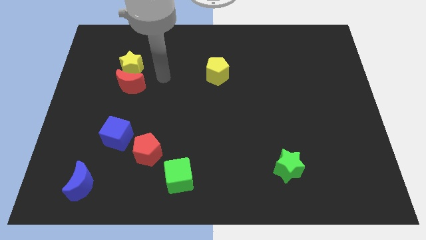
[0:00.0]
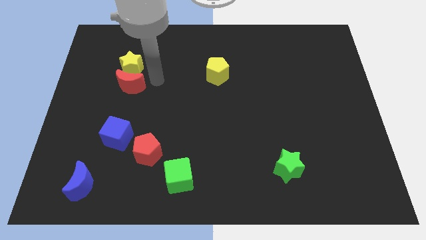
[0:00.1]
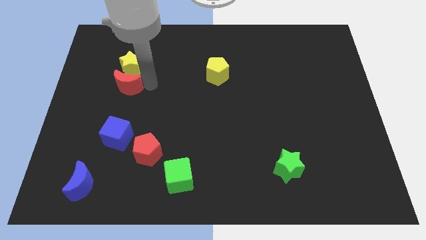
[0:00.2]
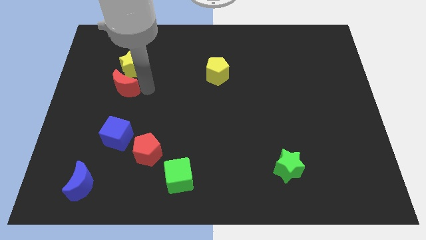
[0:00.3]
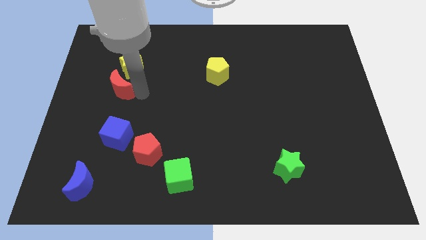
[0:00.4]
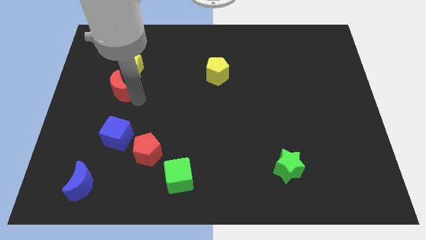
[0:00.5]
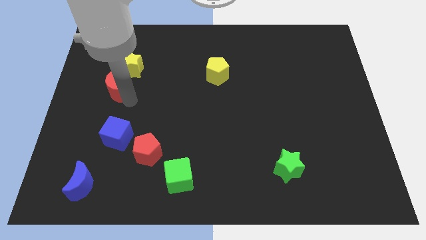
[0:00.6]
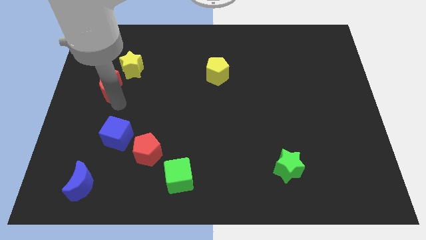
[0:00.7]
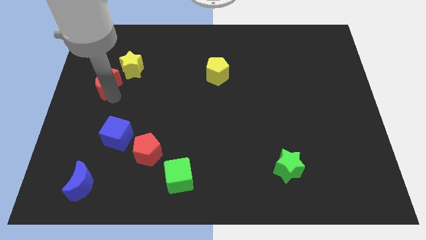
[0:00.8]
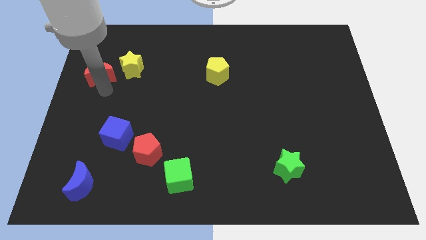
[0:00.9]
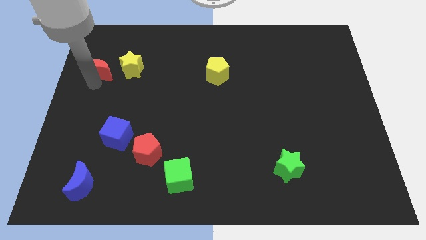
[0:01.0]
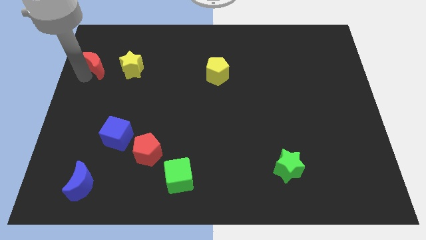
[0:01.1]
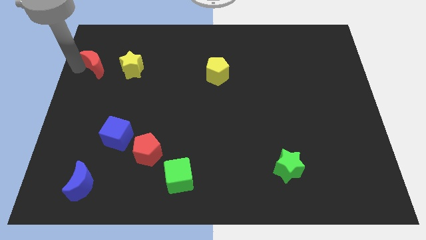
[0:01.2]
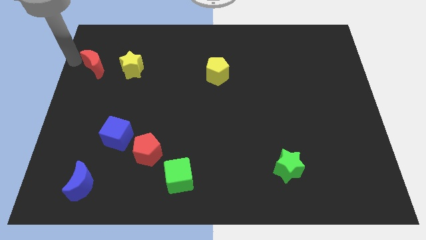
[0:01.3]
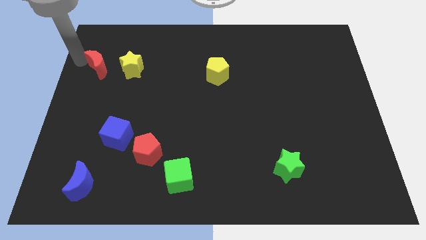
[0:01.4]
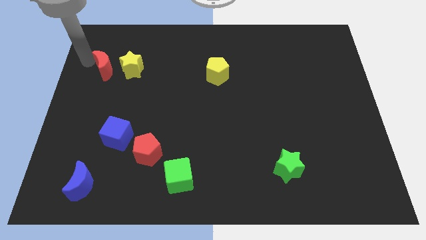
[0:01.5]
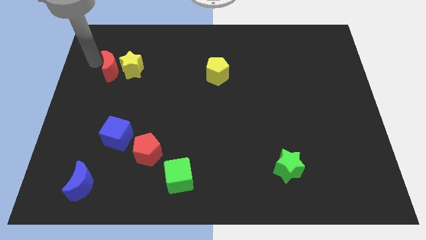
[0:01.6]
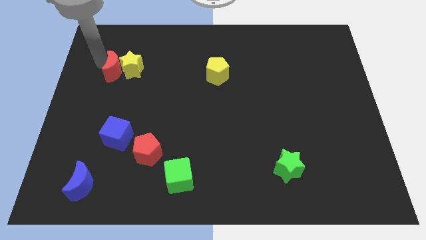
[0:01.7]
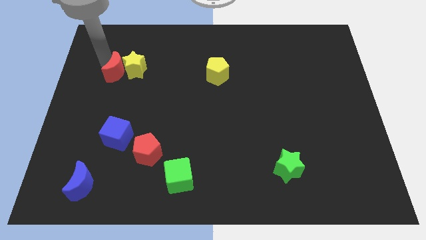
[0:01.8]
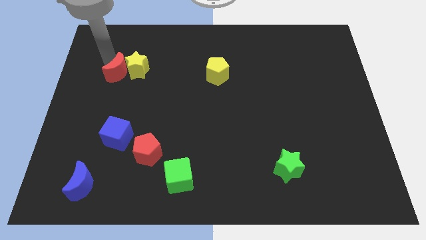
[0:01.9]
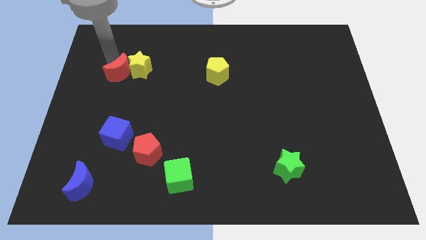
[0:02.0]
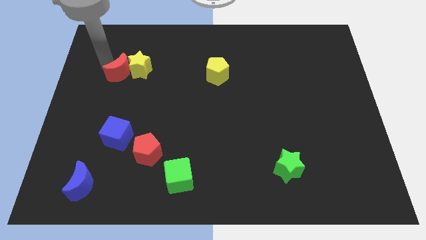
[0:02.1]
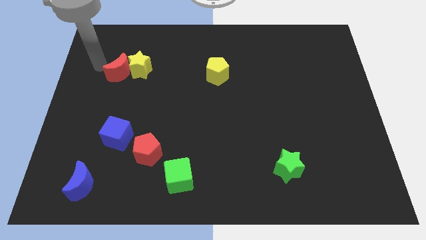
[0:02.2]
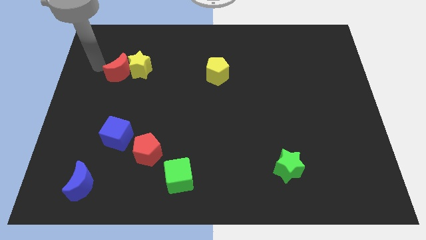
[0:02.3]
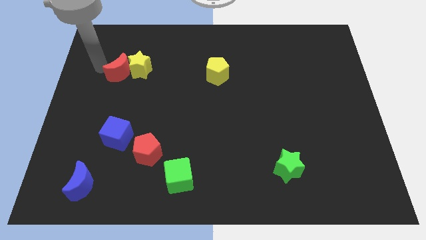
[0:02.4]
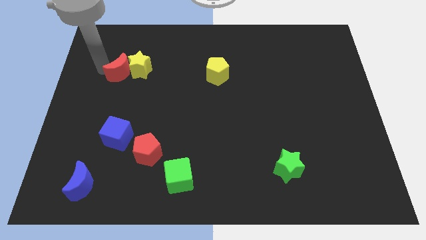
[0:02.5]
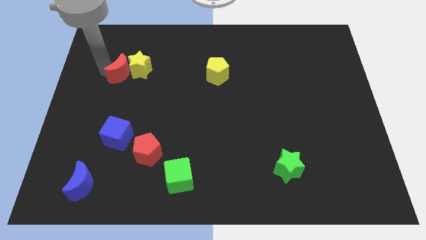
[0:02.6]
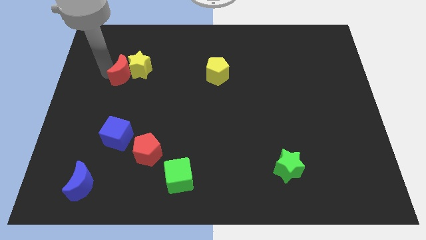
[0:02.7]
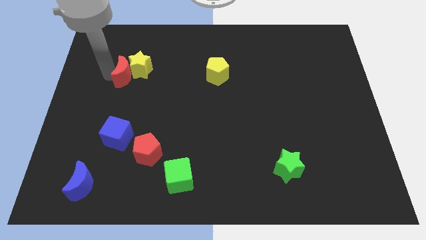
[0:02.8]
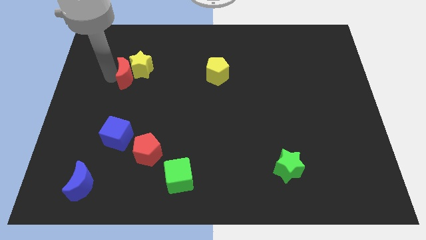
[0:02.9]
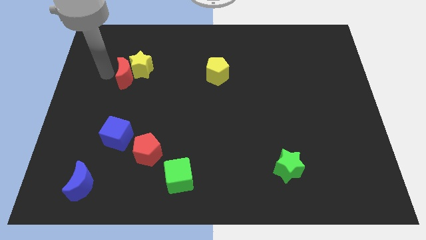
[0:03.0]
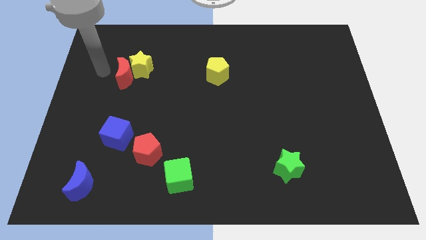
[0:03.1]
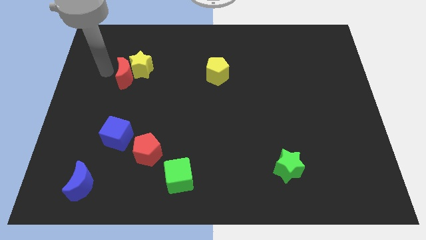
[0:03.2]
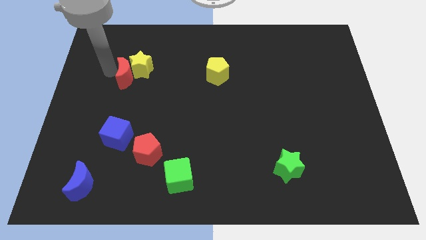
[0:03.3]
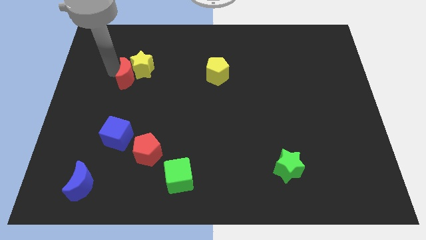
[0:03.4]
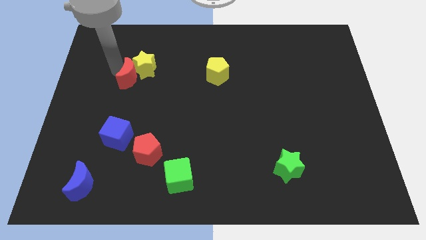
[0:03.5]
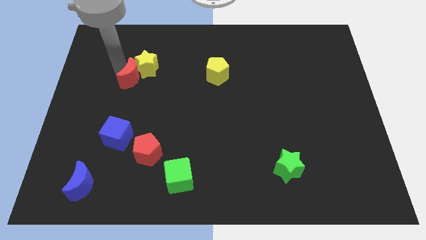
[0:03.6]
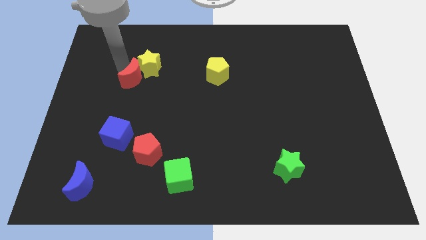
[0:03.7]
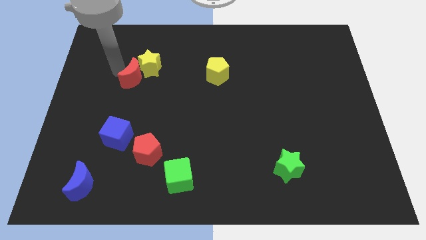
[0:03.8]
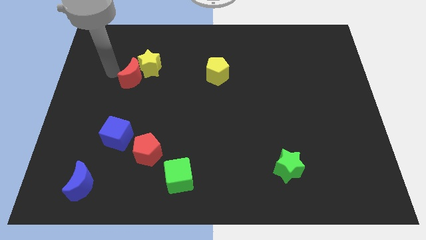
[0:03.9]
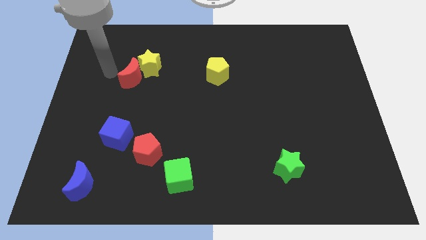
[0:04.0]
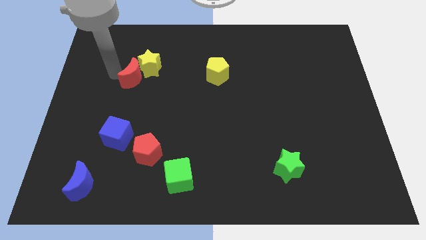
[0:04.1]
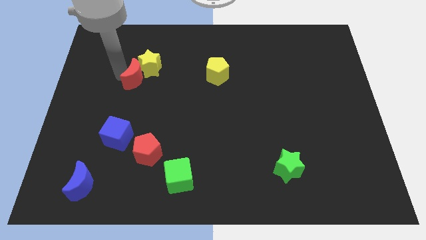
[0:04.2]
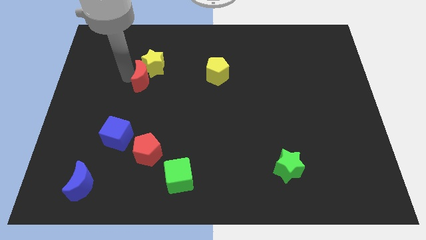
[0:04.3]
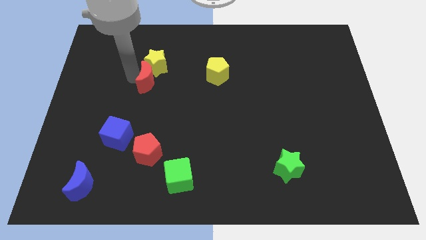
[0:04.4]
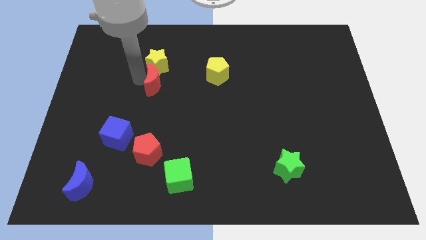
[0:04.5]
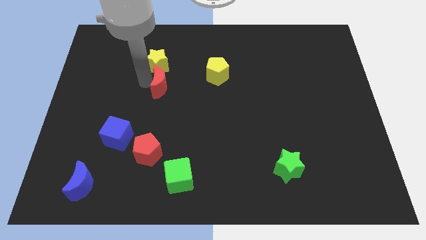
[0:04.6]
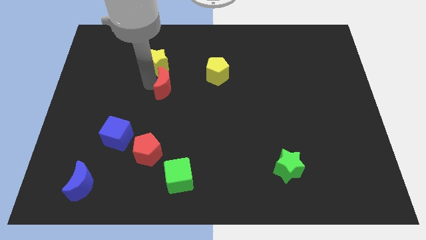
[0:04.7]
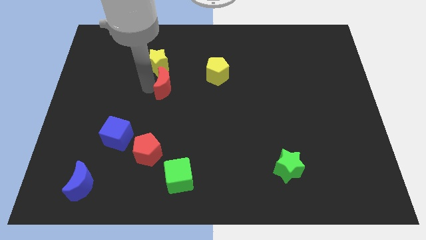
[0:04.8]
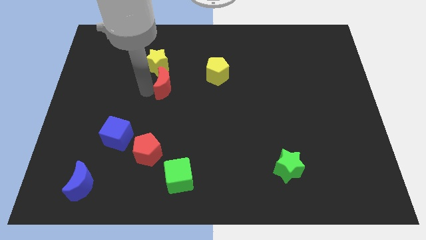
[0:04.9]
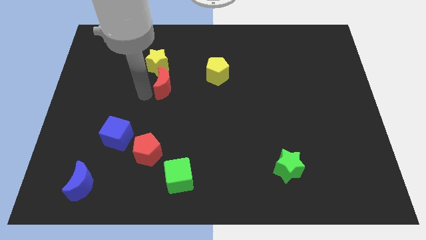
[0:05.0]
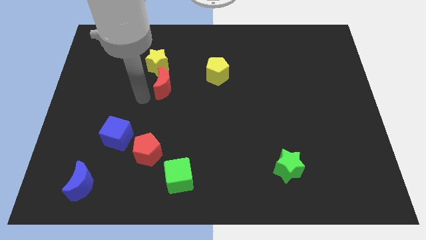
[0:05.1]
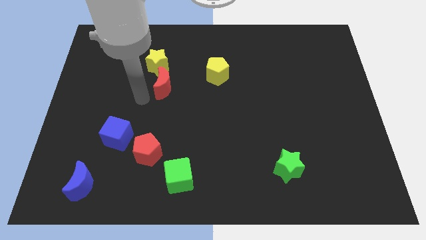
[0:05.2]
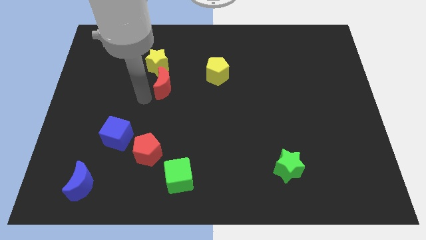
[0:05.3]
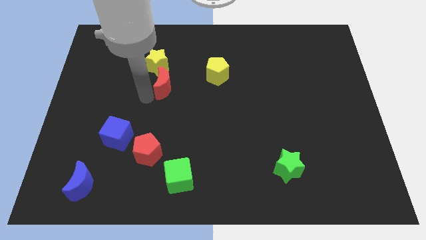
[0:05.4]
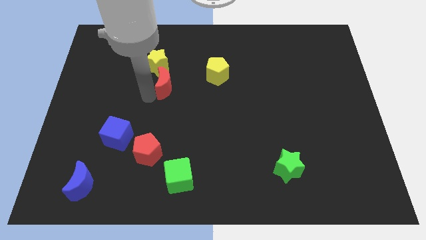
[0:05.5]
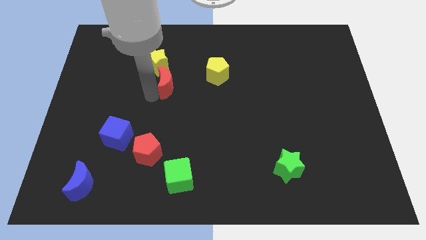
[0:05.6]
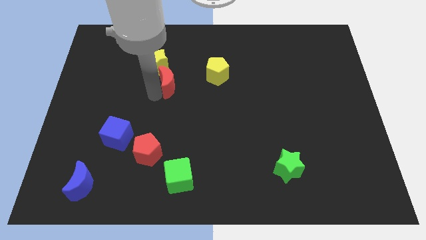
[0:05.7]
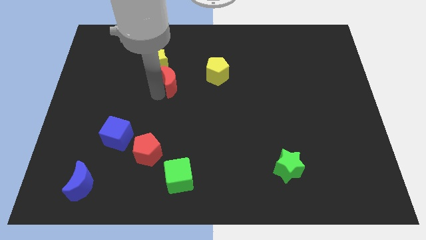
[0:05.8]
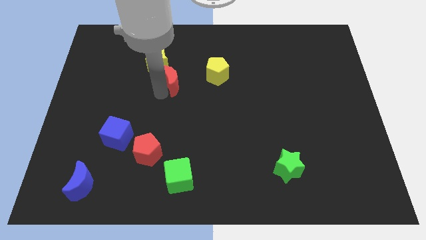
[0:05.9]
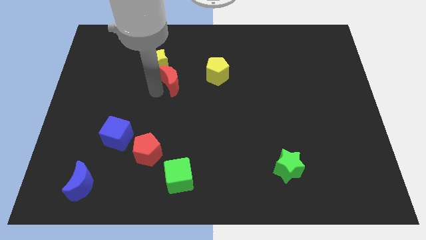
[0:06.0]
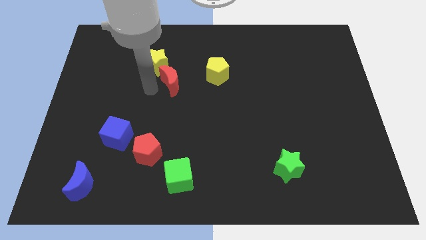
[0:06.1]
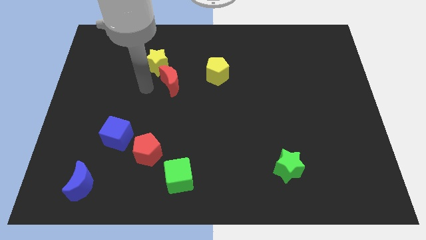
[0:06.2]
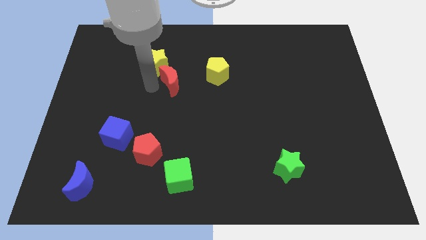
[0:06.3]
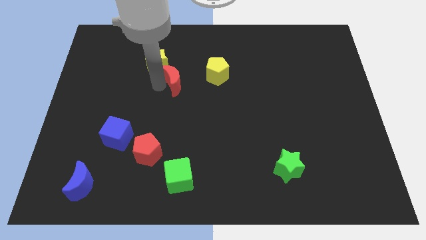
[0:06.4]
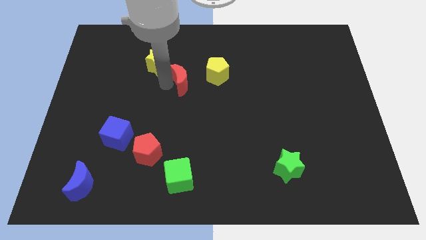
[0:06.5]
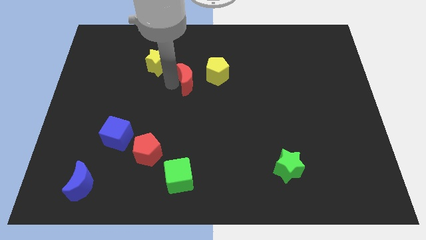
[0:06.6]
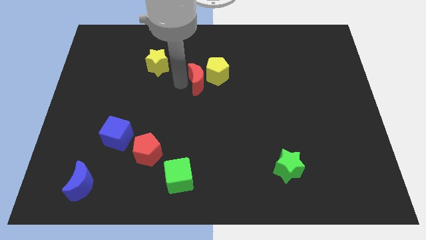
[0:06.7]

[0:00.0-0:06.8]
put the red moon close to the yellow pentagon

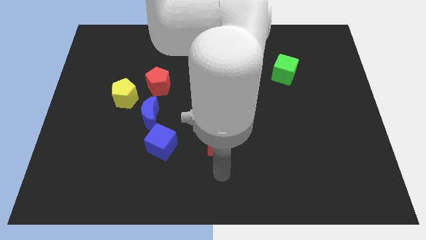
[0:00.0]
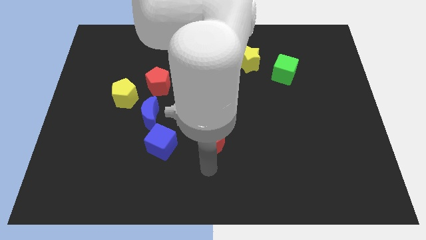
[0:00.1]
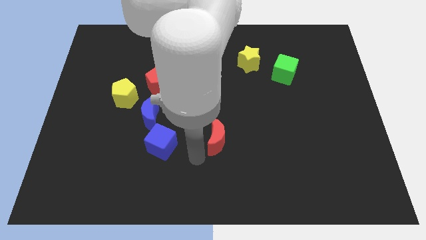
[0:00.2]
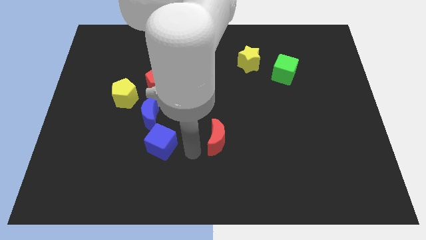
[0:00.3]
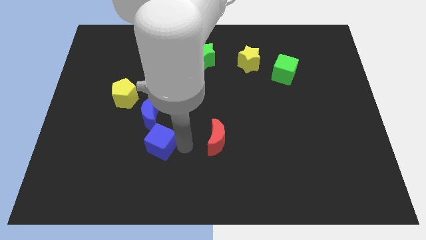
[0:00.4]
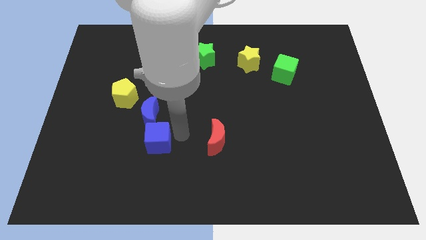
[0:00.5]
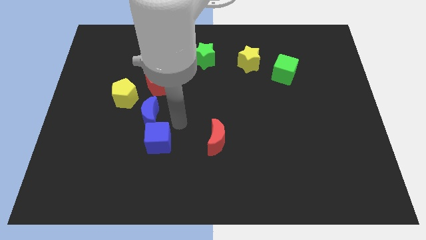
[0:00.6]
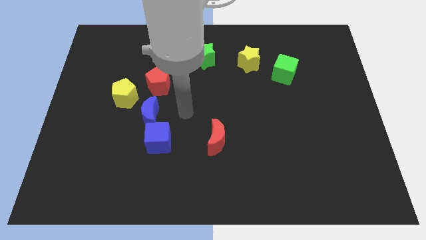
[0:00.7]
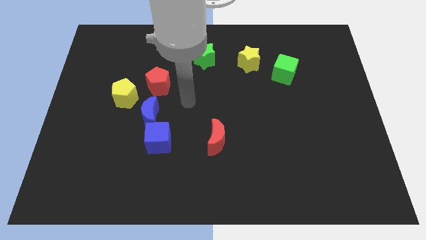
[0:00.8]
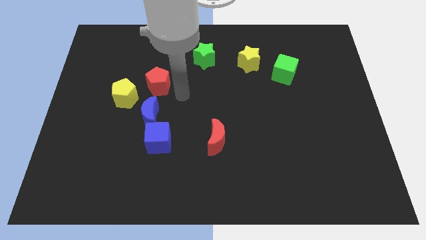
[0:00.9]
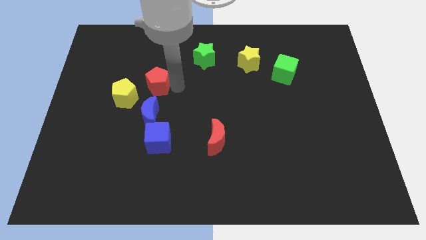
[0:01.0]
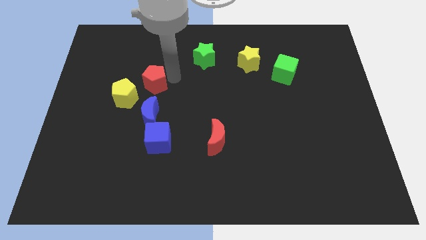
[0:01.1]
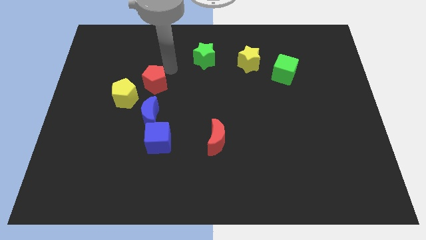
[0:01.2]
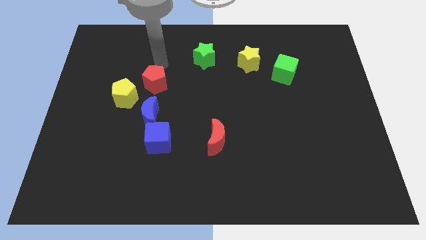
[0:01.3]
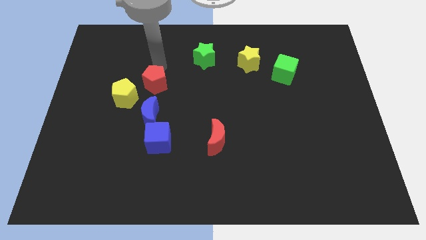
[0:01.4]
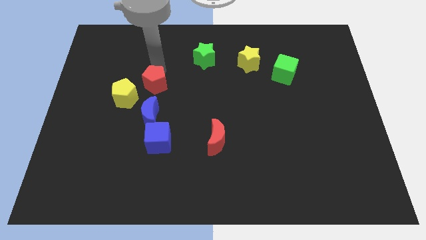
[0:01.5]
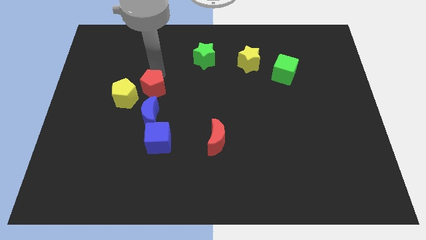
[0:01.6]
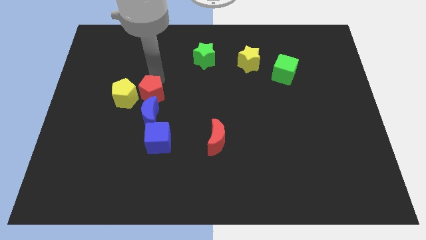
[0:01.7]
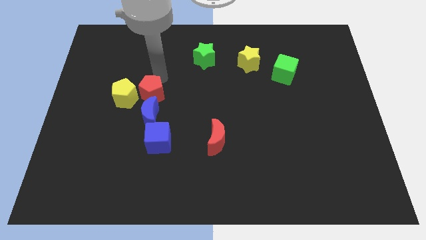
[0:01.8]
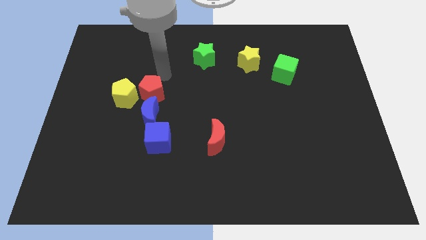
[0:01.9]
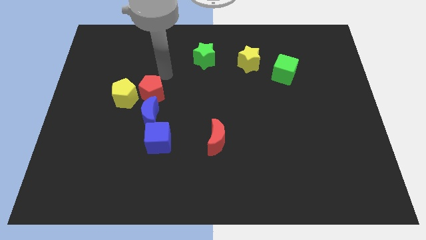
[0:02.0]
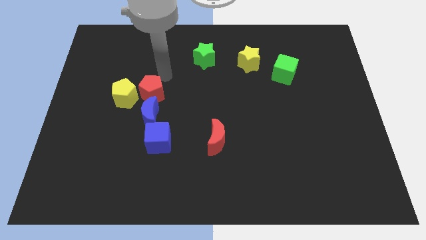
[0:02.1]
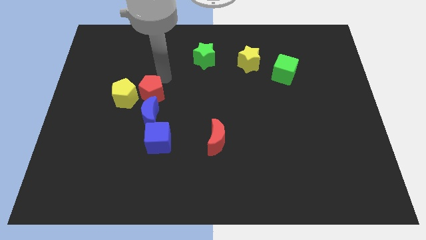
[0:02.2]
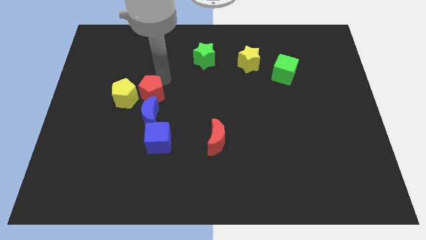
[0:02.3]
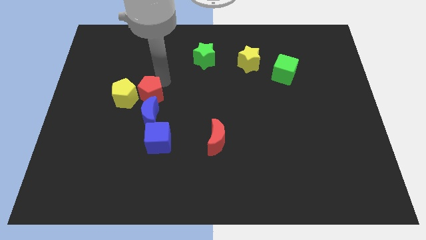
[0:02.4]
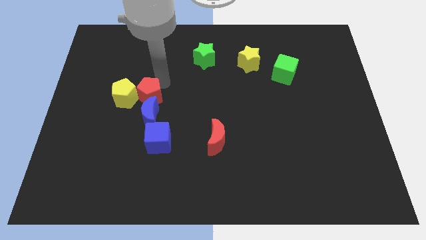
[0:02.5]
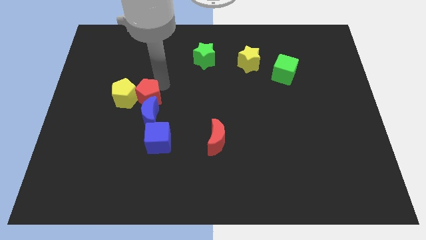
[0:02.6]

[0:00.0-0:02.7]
slide the red pentagon towards the blue moon
